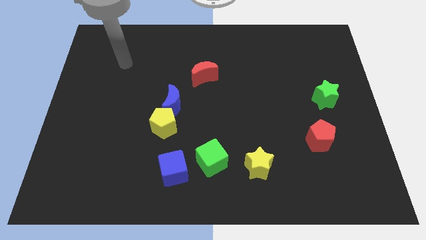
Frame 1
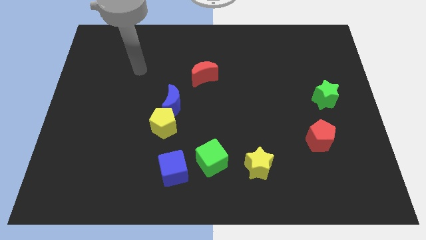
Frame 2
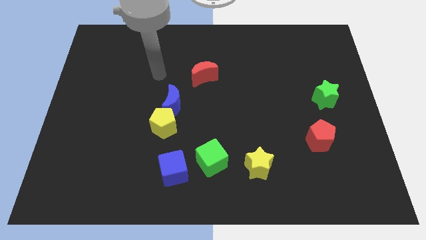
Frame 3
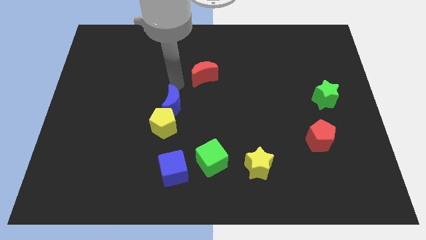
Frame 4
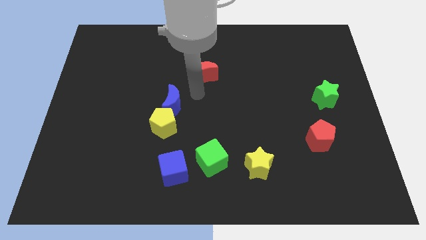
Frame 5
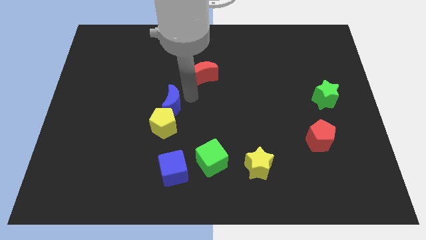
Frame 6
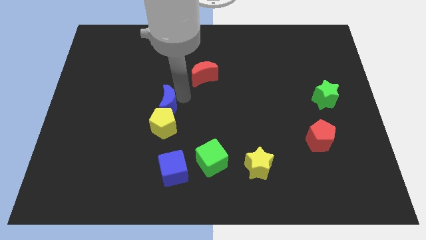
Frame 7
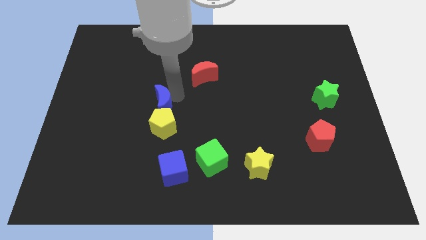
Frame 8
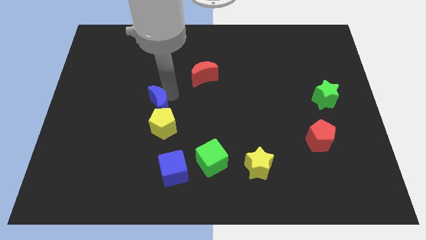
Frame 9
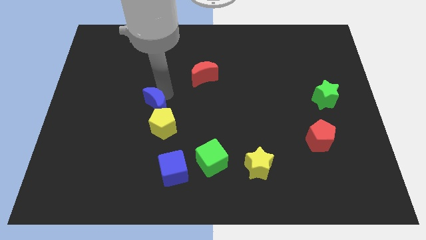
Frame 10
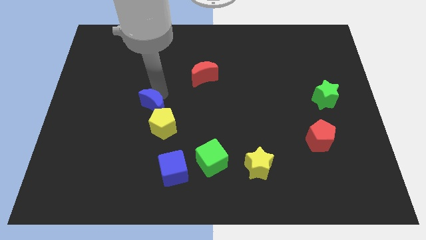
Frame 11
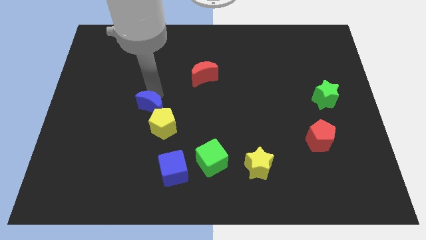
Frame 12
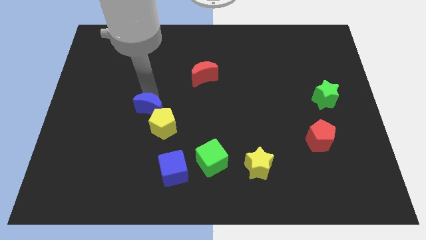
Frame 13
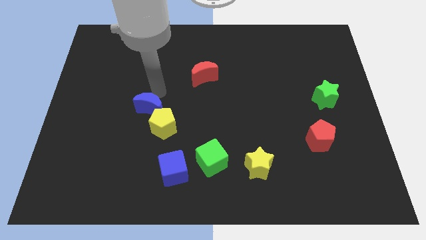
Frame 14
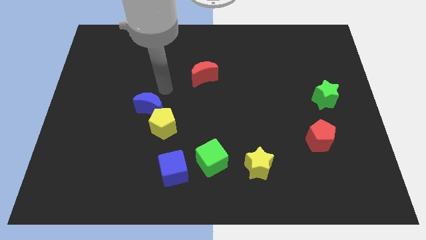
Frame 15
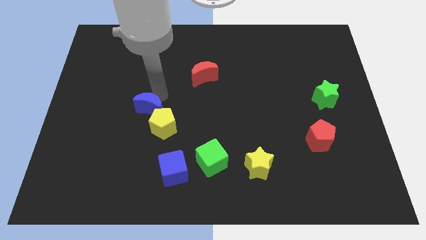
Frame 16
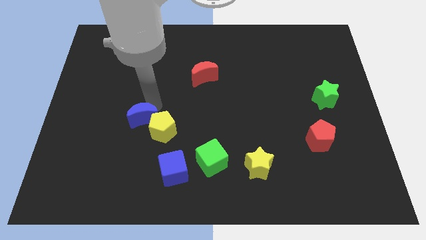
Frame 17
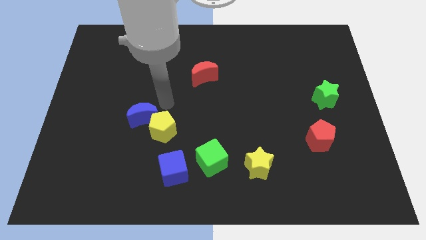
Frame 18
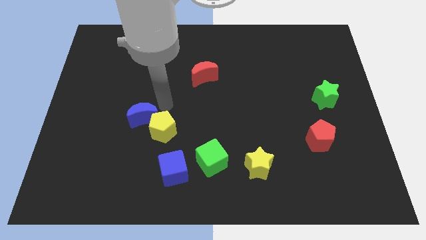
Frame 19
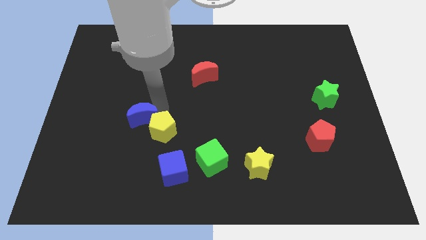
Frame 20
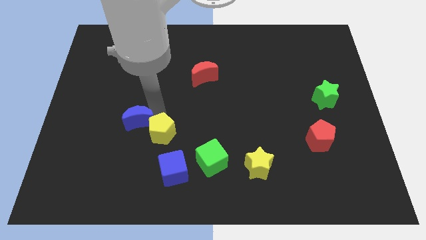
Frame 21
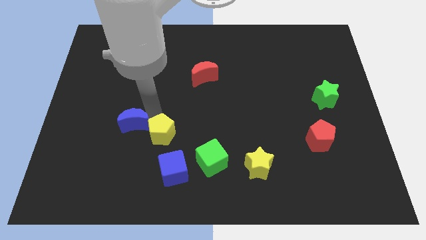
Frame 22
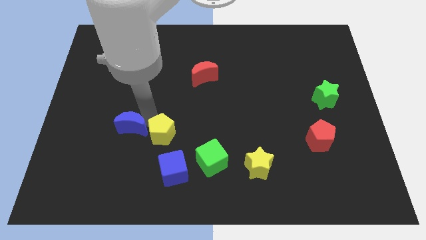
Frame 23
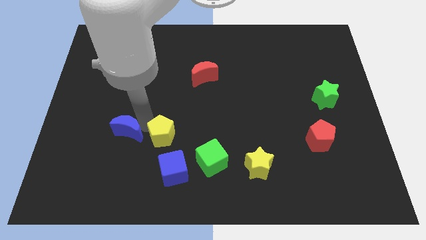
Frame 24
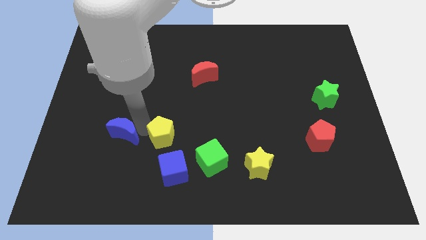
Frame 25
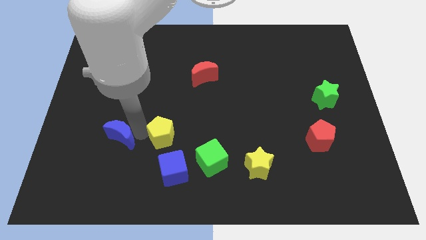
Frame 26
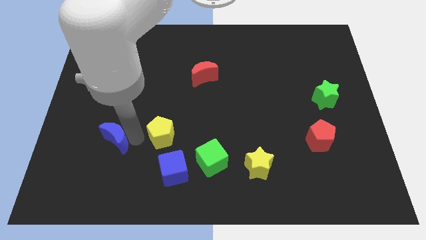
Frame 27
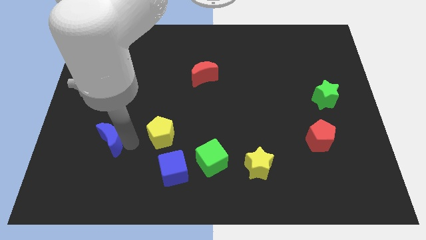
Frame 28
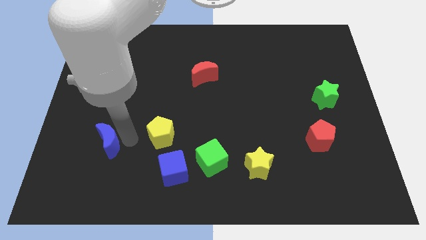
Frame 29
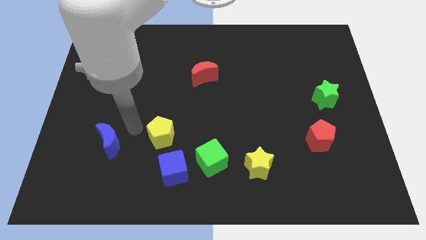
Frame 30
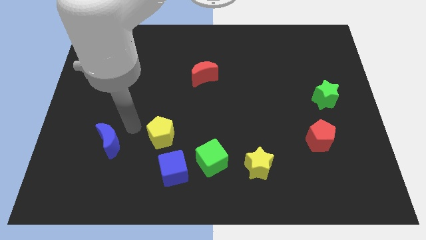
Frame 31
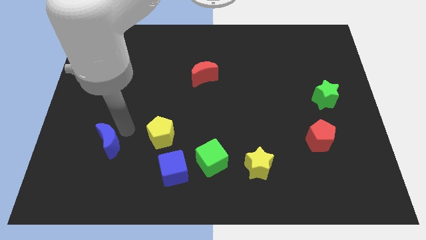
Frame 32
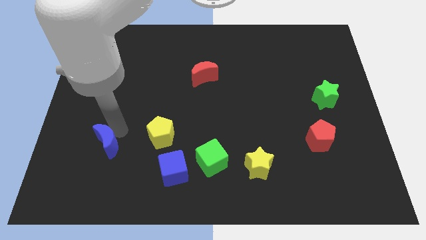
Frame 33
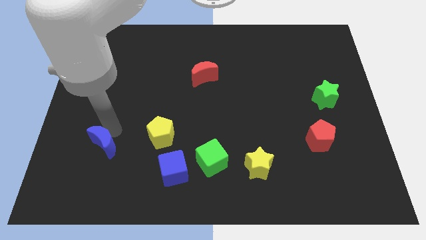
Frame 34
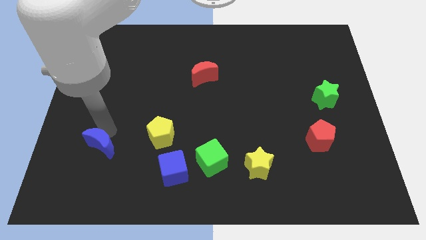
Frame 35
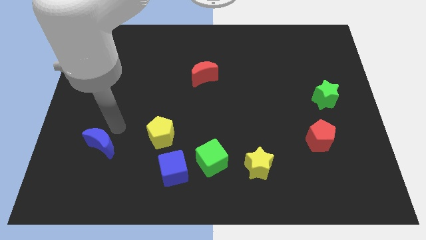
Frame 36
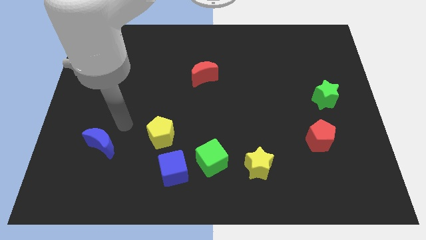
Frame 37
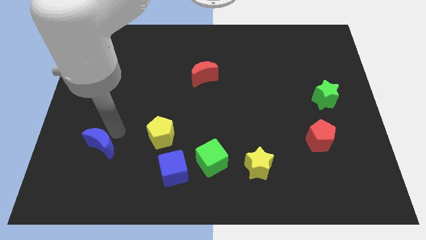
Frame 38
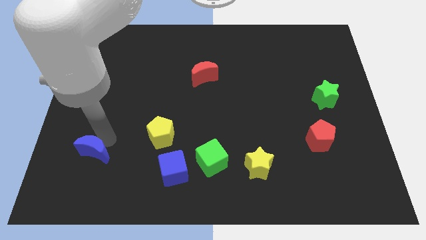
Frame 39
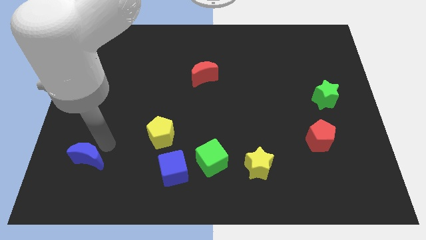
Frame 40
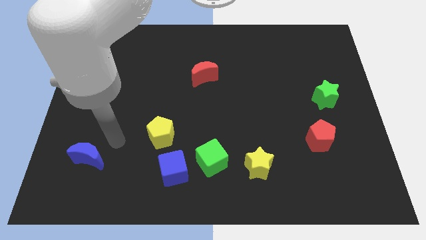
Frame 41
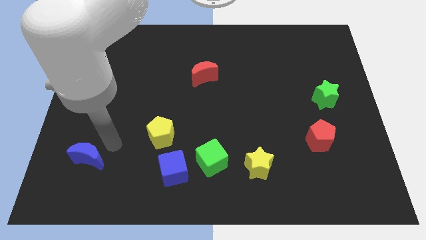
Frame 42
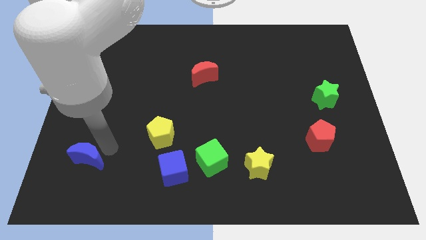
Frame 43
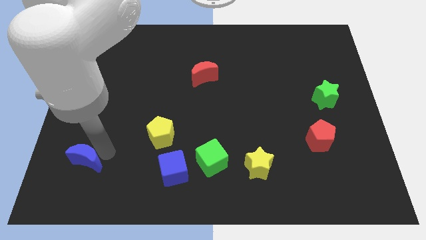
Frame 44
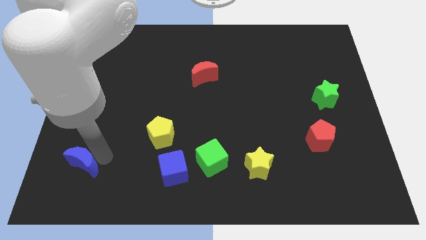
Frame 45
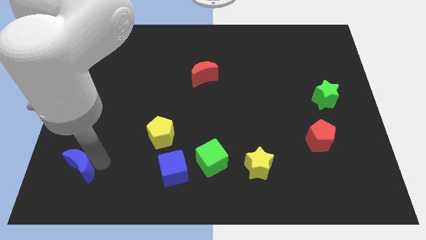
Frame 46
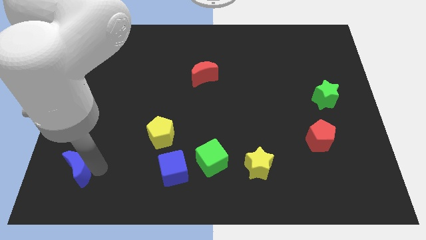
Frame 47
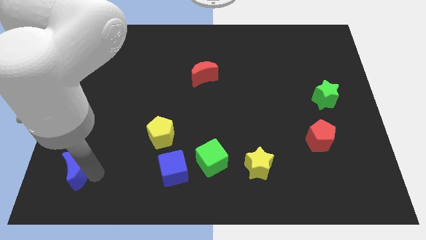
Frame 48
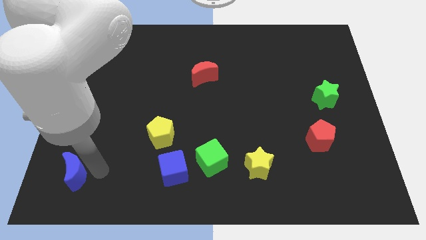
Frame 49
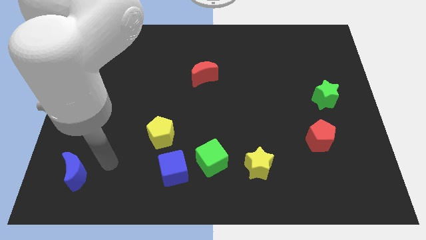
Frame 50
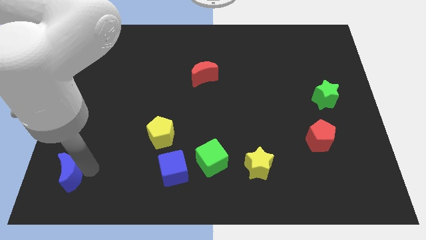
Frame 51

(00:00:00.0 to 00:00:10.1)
push the blue moon to the bottom left of the board

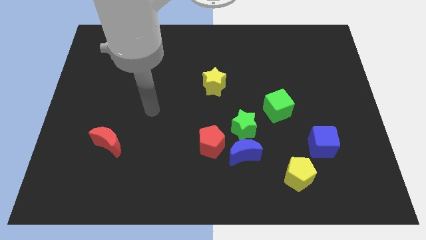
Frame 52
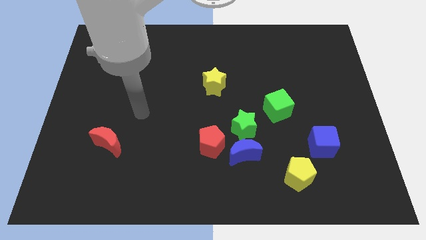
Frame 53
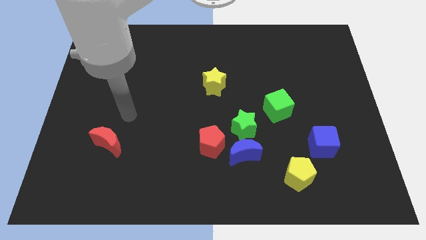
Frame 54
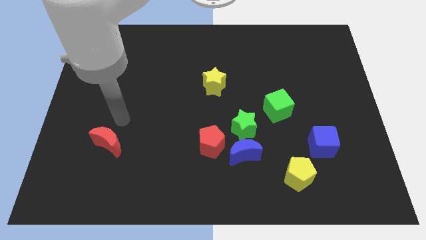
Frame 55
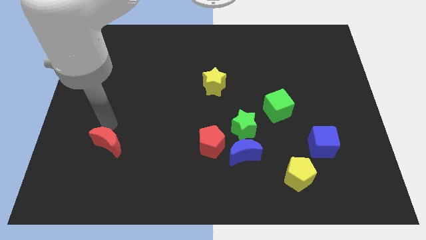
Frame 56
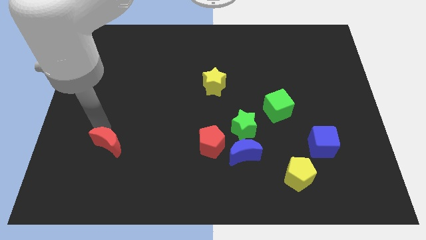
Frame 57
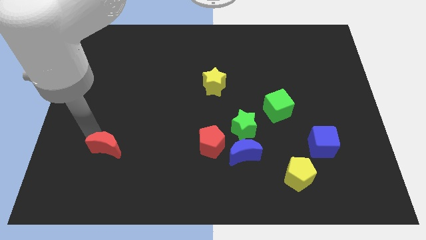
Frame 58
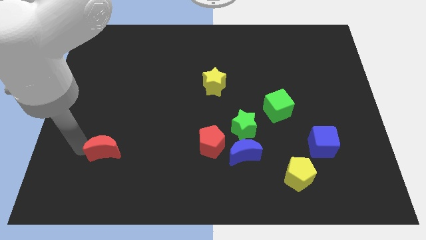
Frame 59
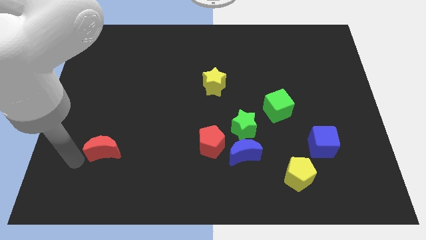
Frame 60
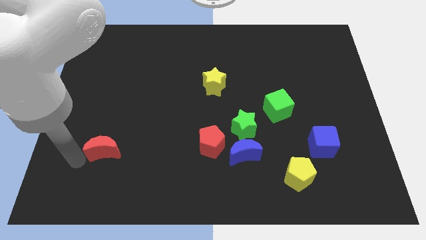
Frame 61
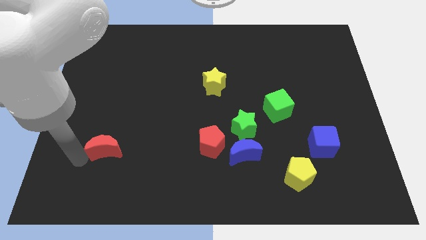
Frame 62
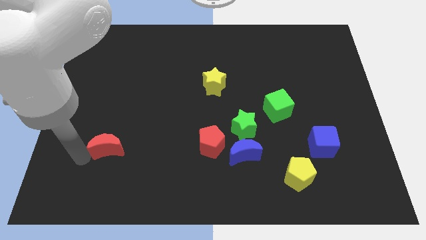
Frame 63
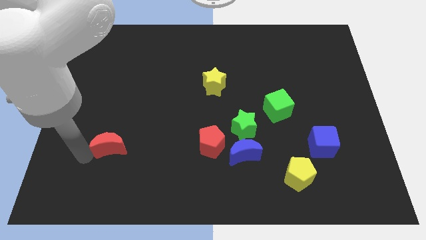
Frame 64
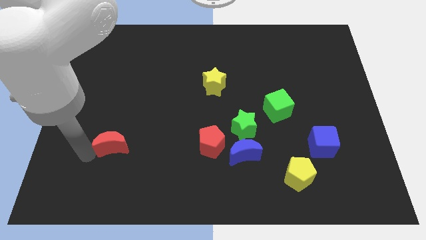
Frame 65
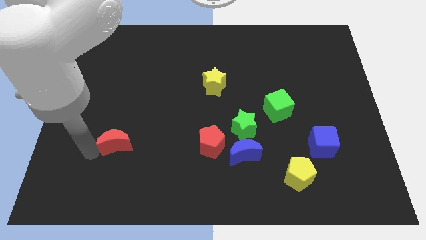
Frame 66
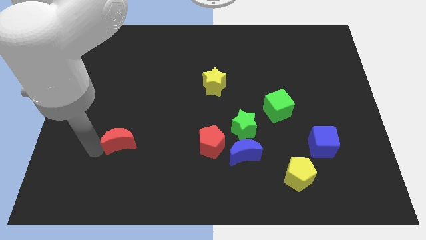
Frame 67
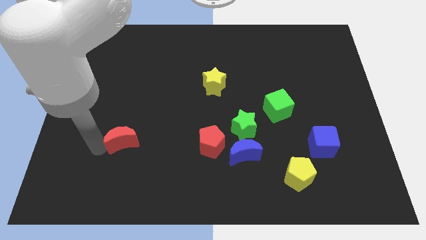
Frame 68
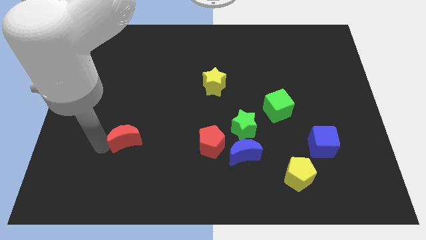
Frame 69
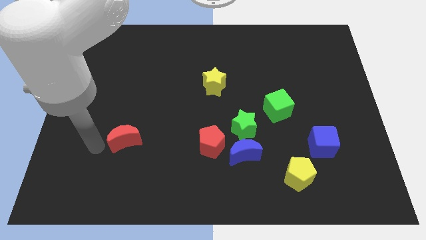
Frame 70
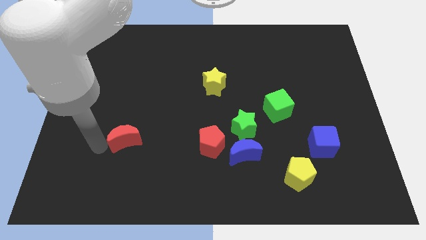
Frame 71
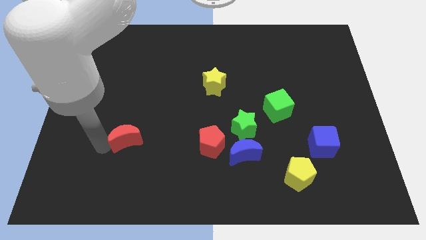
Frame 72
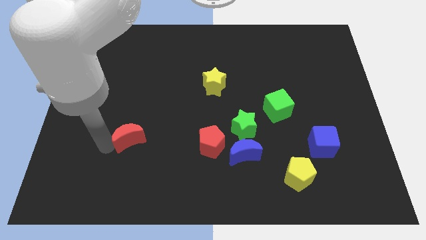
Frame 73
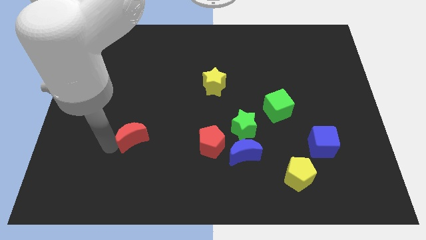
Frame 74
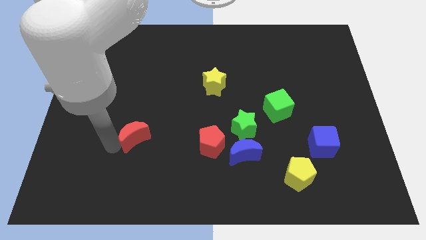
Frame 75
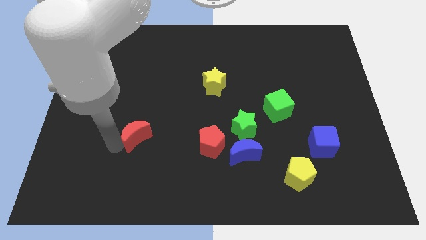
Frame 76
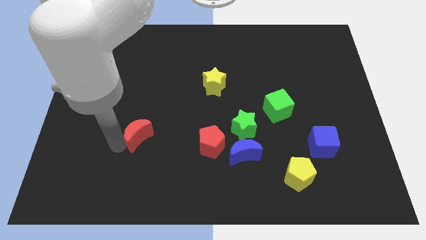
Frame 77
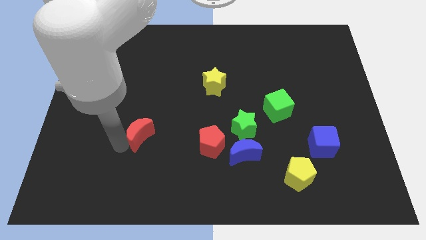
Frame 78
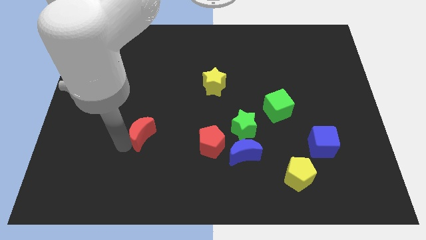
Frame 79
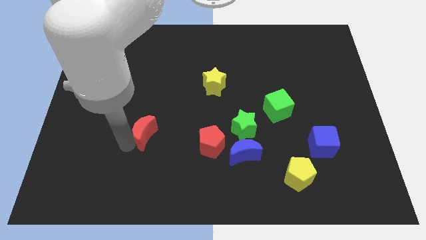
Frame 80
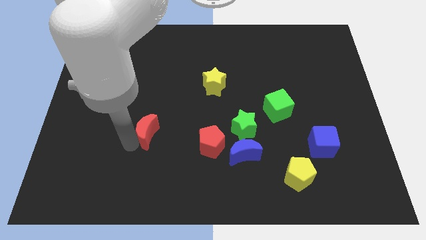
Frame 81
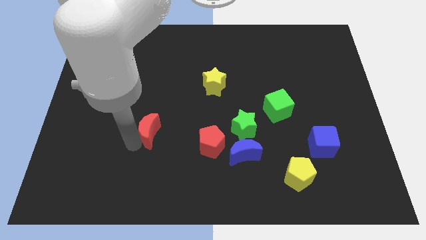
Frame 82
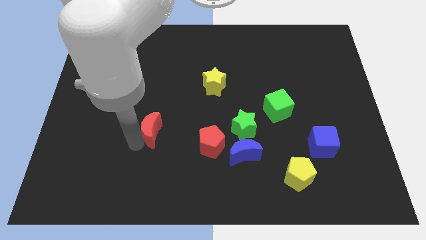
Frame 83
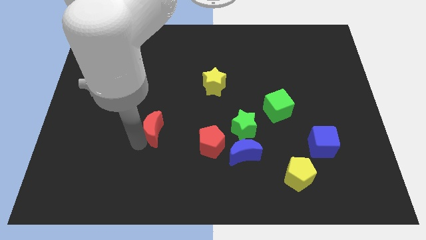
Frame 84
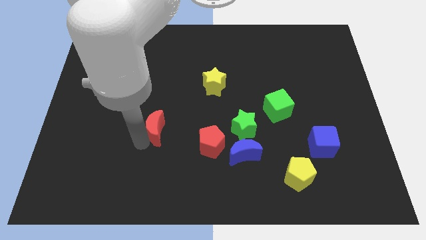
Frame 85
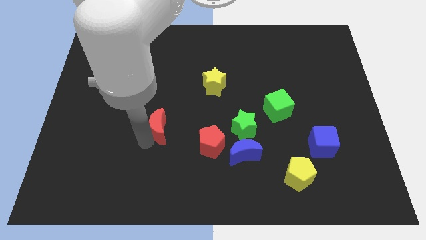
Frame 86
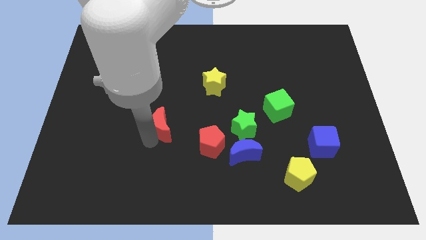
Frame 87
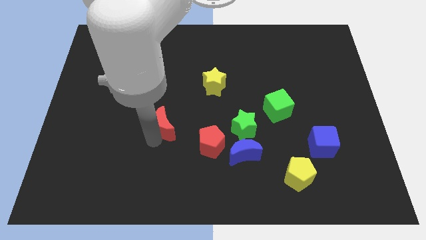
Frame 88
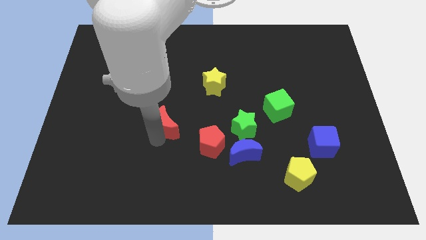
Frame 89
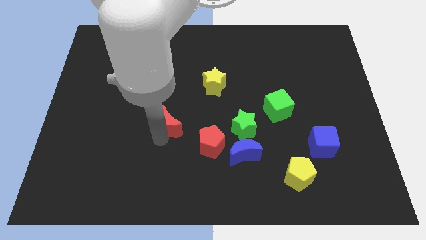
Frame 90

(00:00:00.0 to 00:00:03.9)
put the red moon to the center of the board
